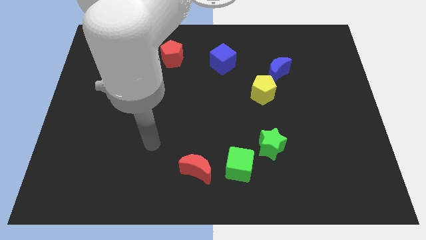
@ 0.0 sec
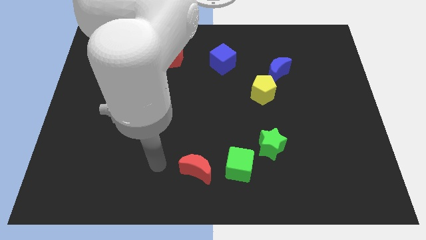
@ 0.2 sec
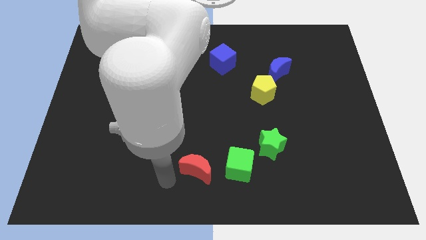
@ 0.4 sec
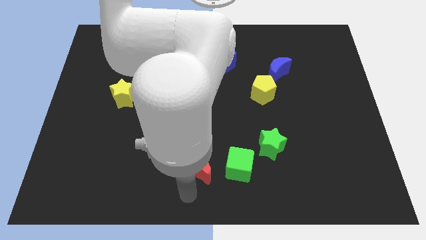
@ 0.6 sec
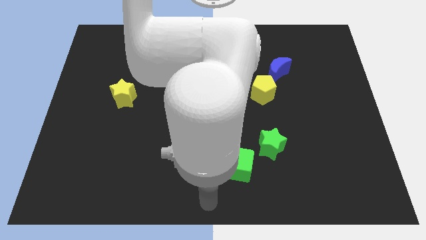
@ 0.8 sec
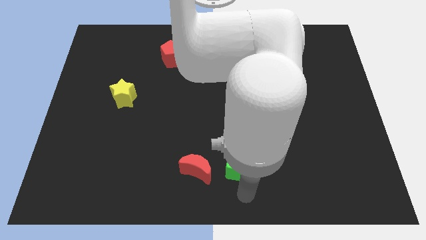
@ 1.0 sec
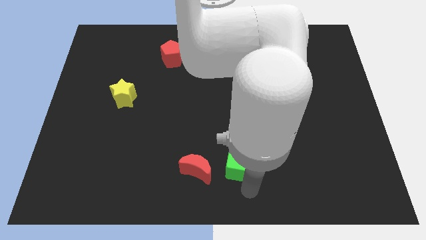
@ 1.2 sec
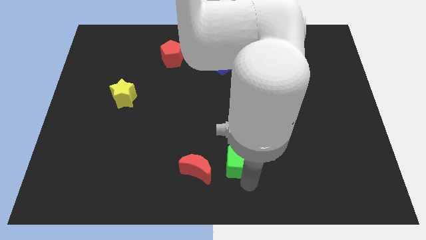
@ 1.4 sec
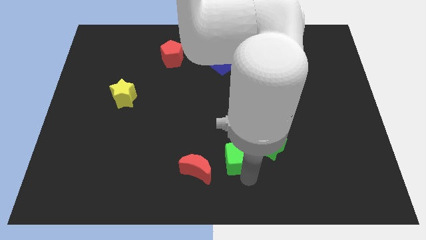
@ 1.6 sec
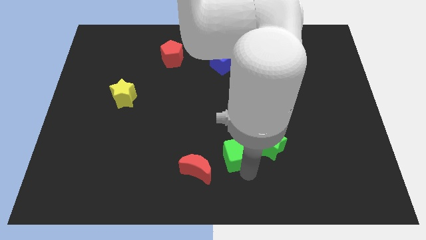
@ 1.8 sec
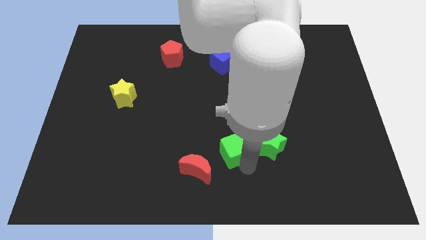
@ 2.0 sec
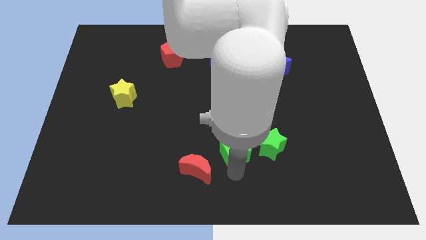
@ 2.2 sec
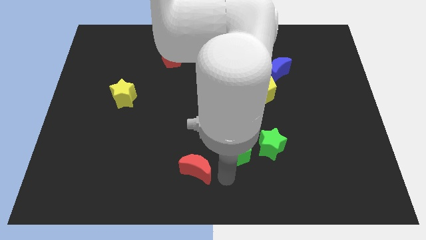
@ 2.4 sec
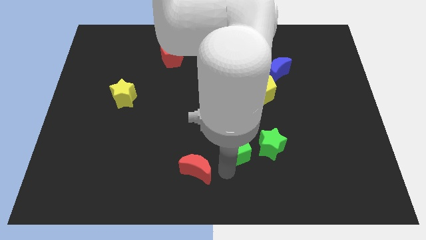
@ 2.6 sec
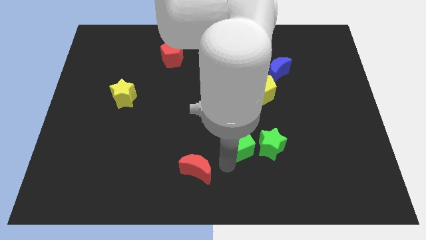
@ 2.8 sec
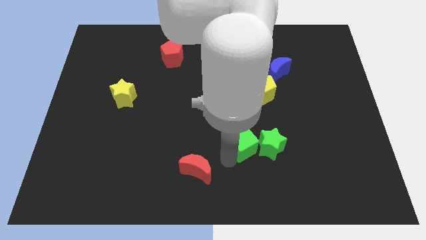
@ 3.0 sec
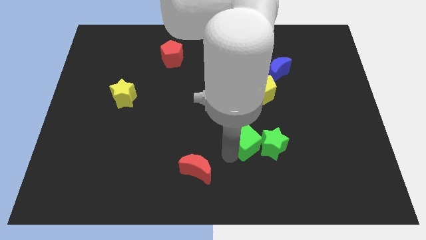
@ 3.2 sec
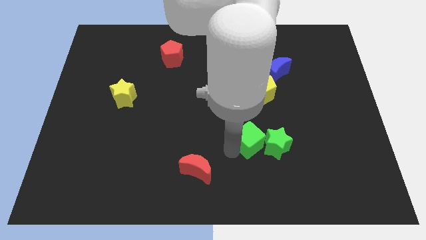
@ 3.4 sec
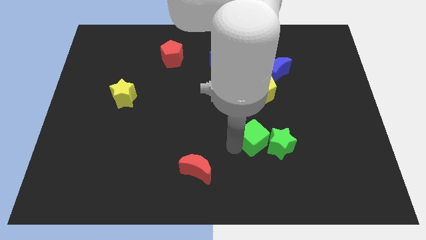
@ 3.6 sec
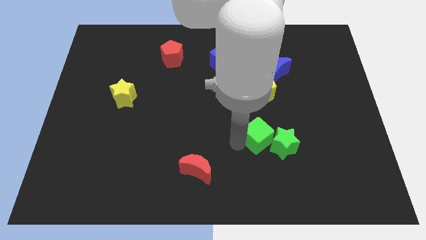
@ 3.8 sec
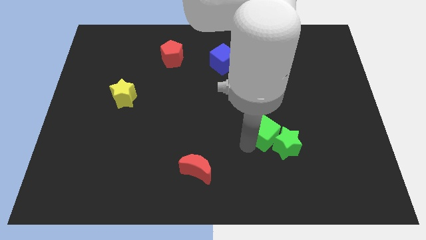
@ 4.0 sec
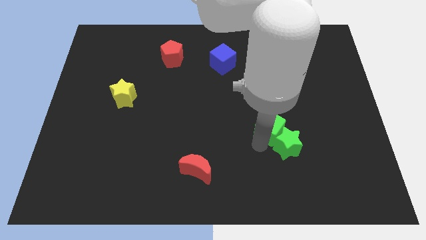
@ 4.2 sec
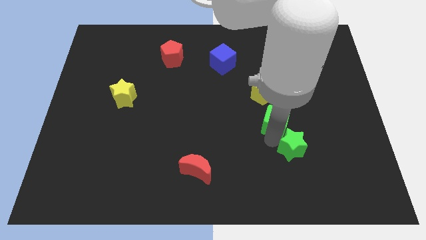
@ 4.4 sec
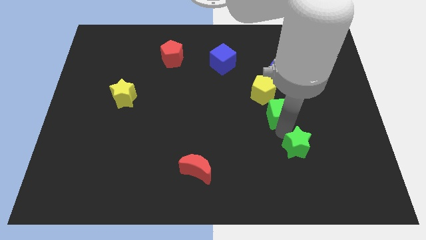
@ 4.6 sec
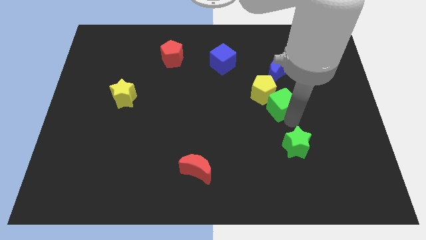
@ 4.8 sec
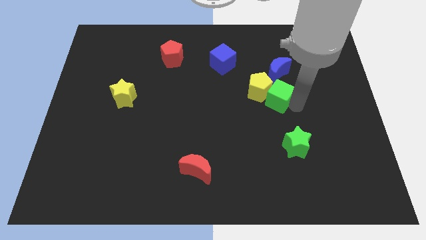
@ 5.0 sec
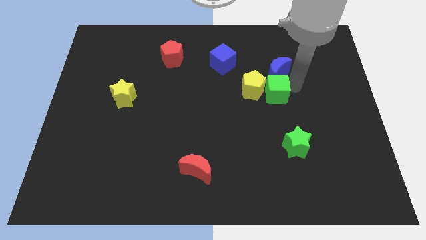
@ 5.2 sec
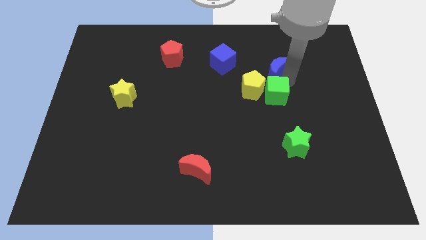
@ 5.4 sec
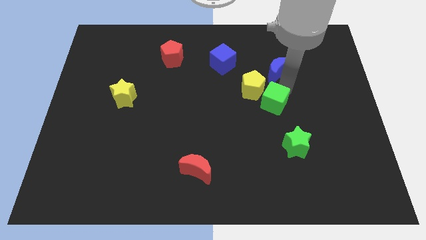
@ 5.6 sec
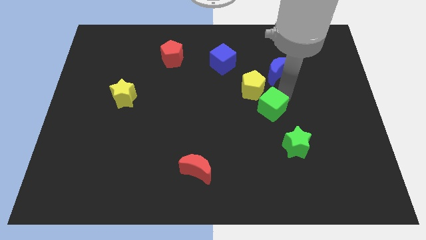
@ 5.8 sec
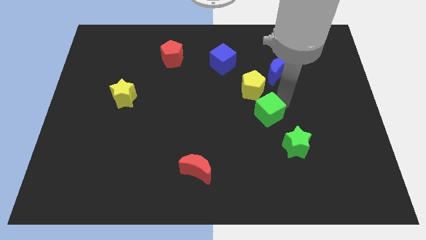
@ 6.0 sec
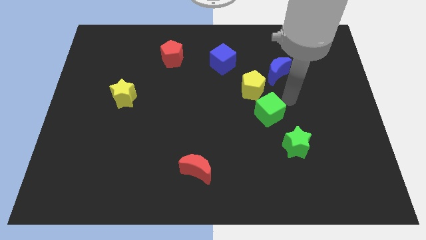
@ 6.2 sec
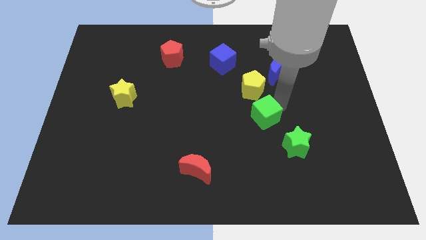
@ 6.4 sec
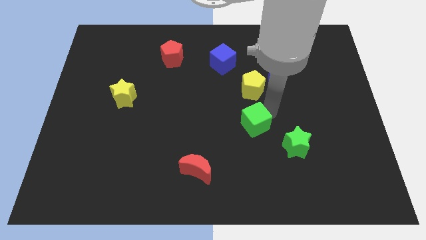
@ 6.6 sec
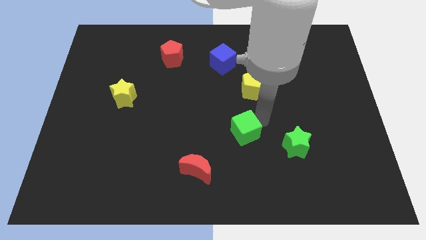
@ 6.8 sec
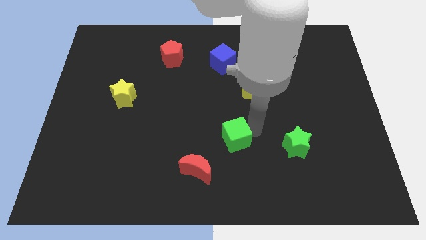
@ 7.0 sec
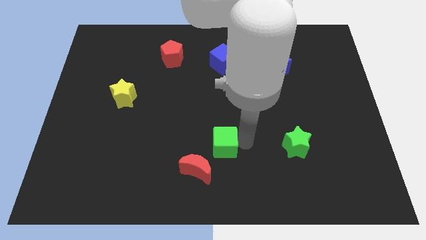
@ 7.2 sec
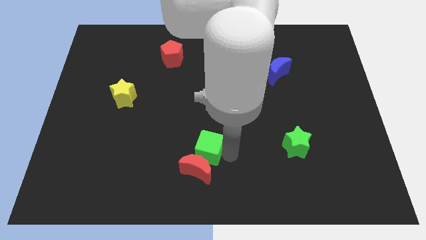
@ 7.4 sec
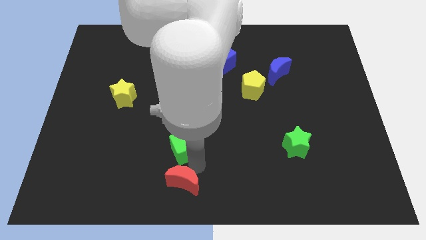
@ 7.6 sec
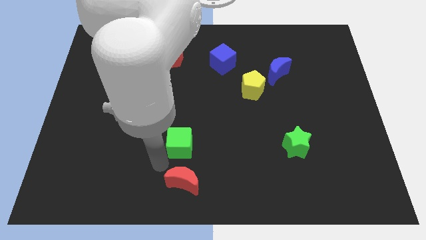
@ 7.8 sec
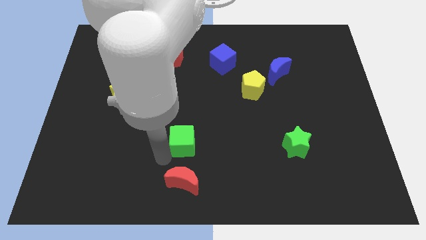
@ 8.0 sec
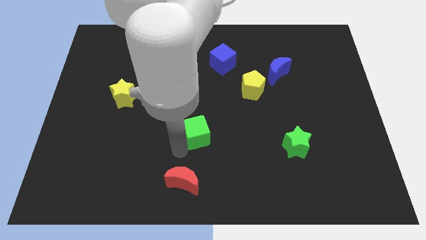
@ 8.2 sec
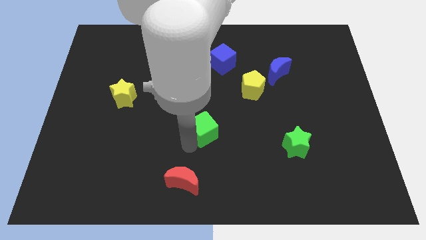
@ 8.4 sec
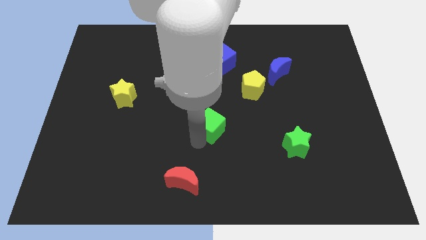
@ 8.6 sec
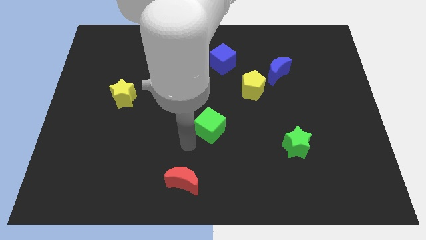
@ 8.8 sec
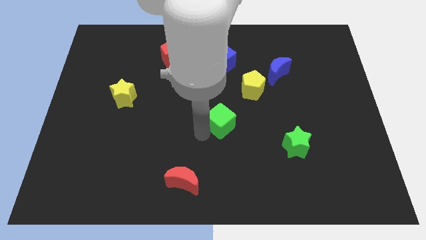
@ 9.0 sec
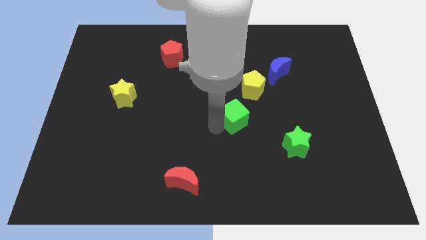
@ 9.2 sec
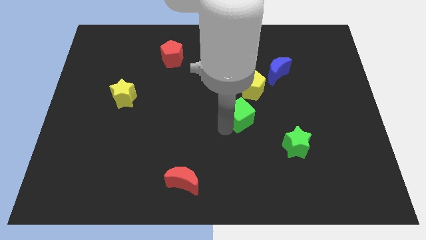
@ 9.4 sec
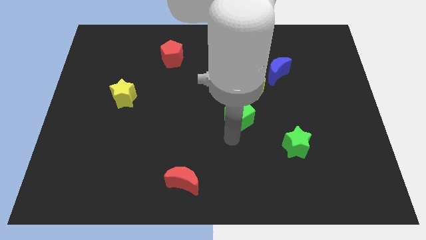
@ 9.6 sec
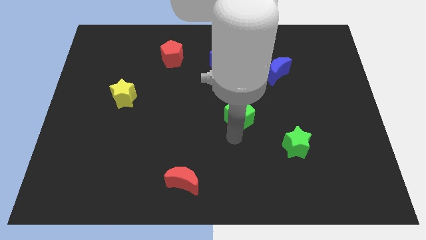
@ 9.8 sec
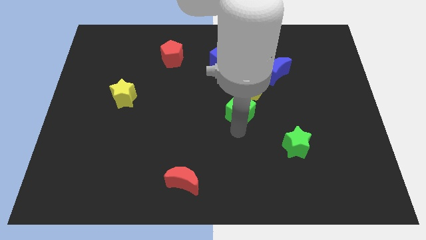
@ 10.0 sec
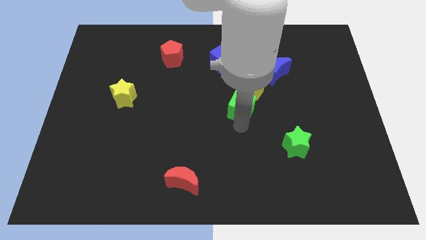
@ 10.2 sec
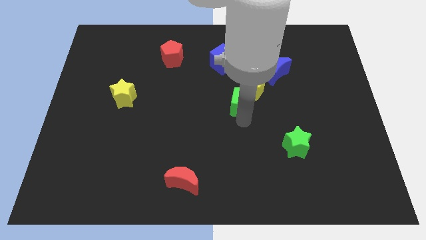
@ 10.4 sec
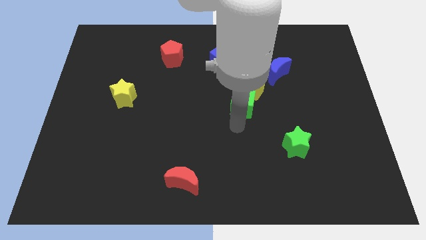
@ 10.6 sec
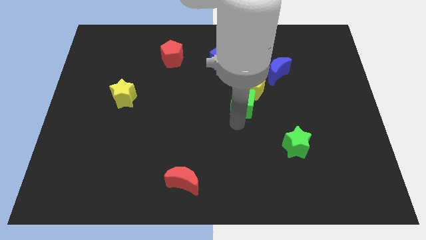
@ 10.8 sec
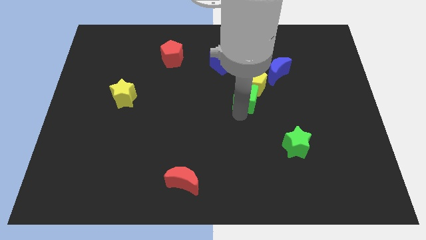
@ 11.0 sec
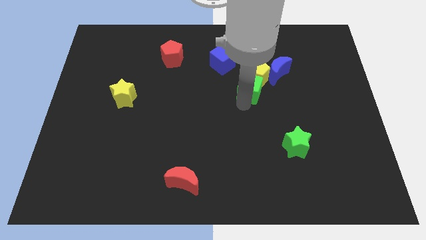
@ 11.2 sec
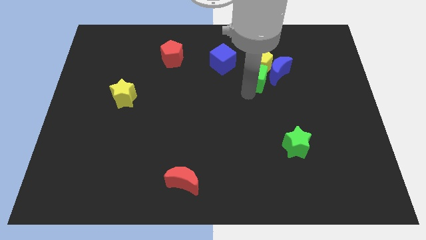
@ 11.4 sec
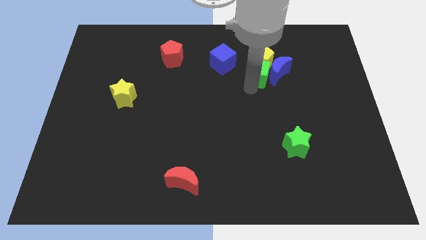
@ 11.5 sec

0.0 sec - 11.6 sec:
slide the green cube to the right side of the blue cube

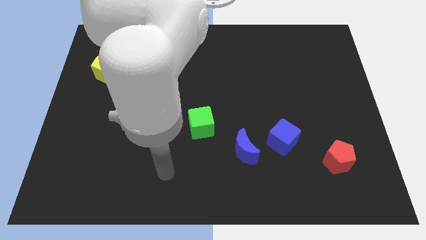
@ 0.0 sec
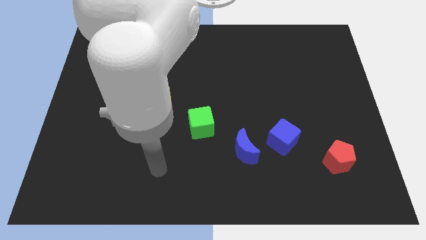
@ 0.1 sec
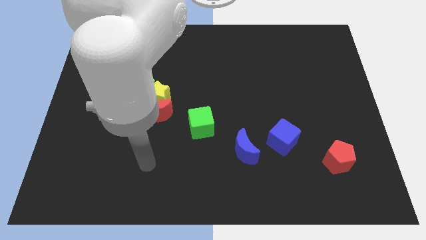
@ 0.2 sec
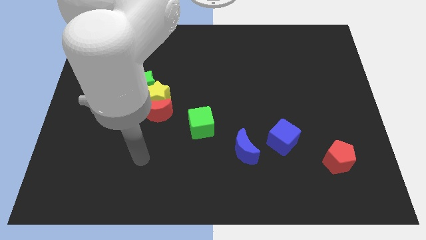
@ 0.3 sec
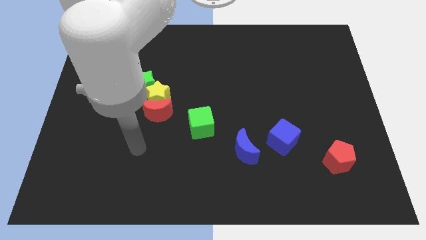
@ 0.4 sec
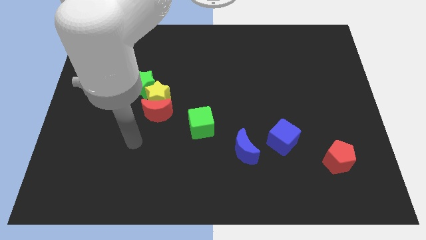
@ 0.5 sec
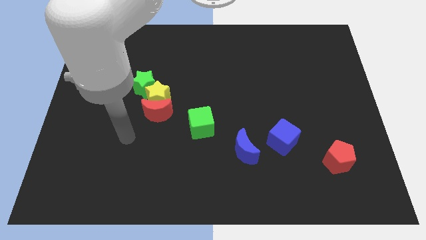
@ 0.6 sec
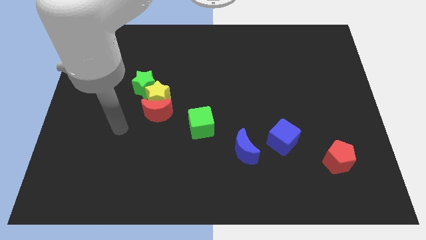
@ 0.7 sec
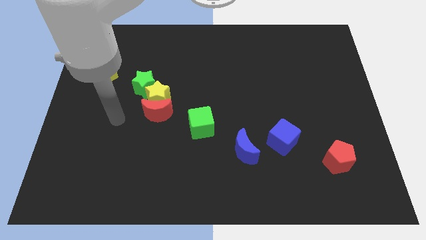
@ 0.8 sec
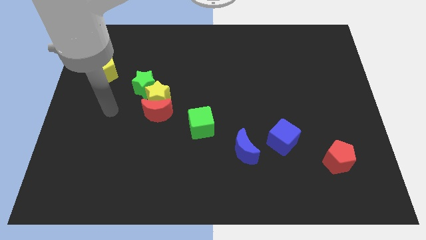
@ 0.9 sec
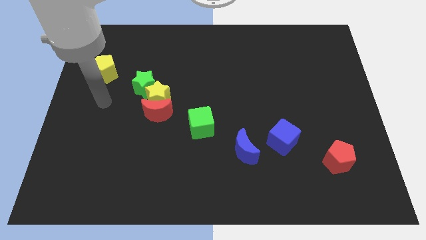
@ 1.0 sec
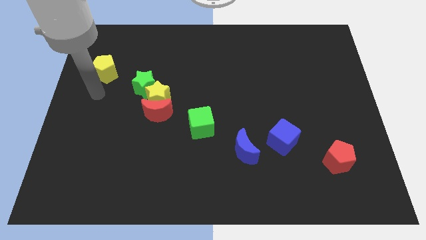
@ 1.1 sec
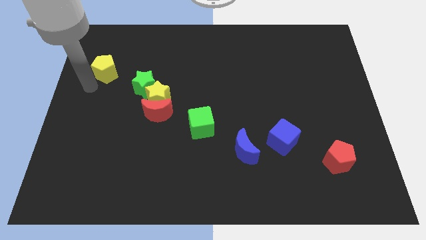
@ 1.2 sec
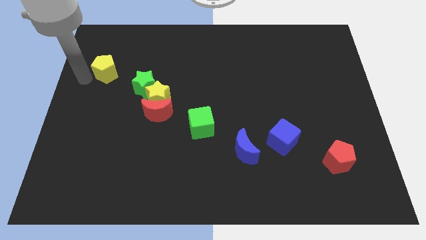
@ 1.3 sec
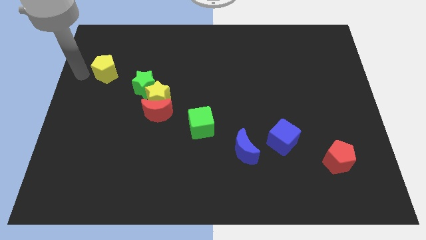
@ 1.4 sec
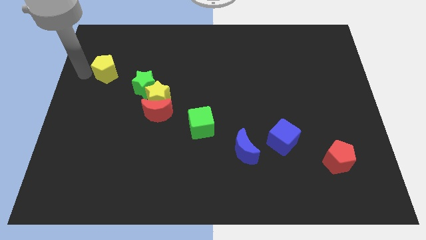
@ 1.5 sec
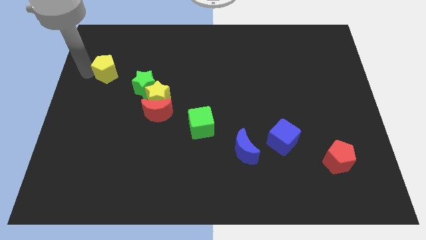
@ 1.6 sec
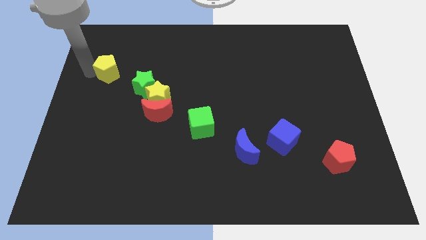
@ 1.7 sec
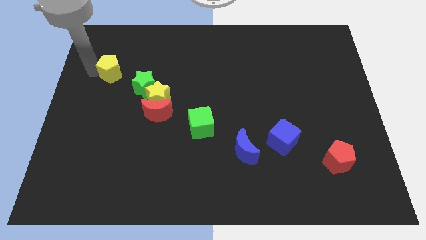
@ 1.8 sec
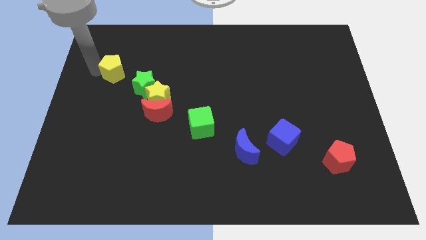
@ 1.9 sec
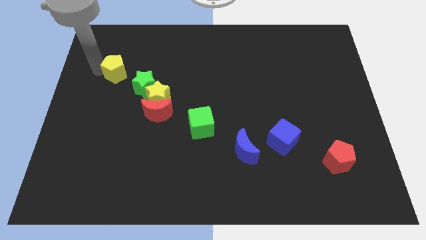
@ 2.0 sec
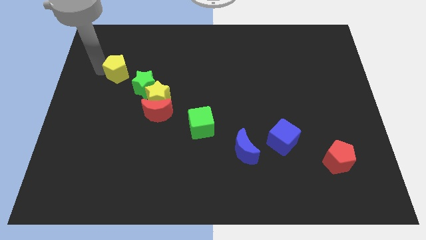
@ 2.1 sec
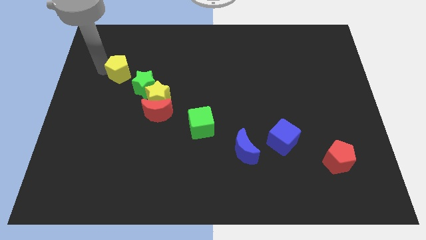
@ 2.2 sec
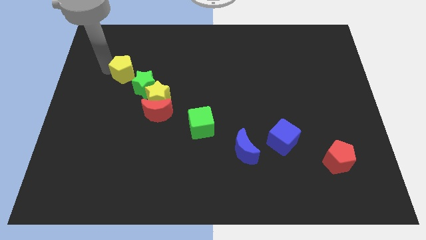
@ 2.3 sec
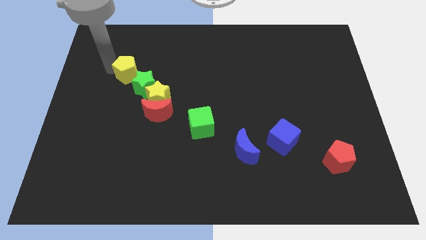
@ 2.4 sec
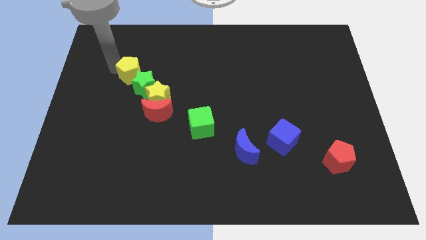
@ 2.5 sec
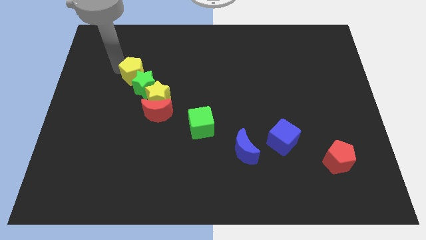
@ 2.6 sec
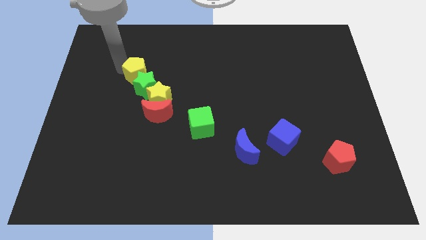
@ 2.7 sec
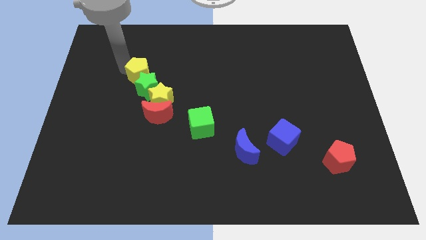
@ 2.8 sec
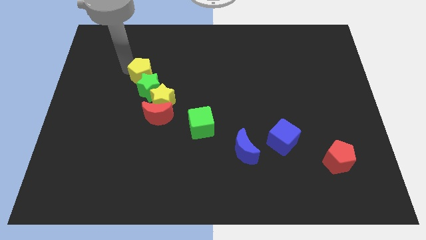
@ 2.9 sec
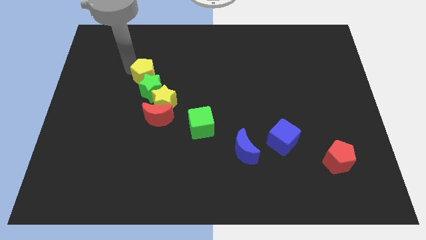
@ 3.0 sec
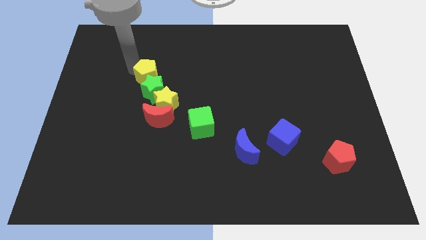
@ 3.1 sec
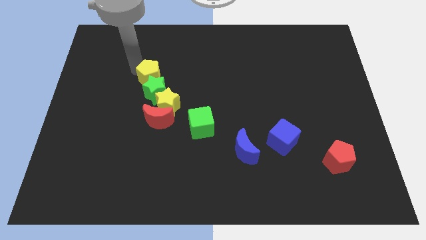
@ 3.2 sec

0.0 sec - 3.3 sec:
put the yellow pentagon to the top side of the yellow star
